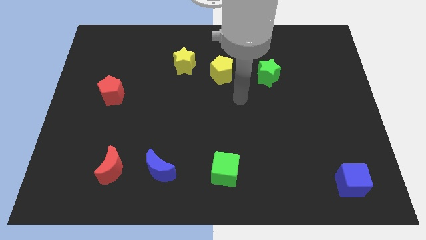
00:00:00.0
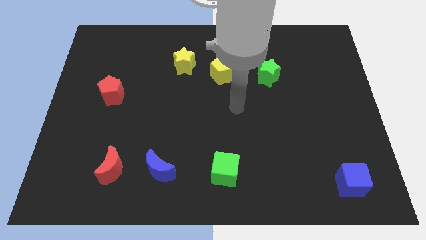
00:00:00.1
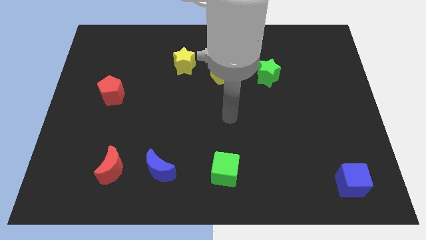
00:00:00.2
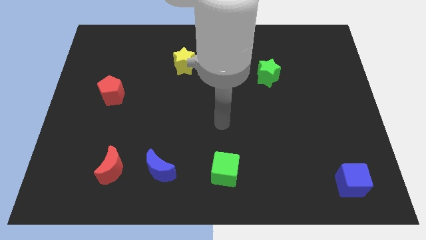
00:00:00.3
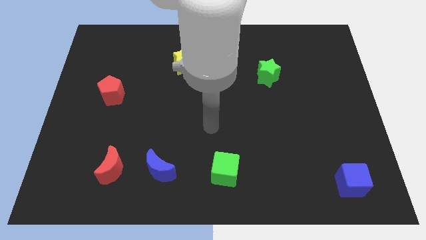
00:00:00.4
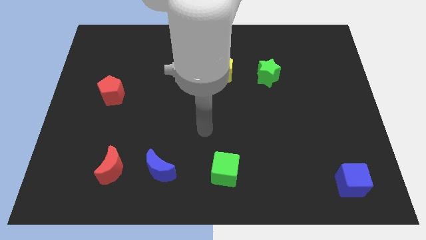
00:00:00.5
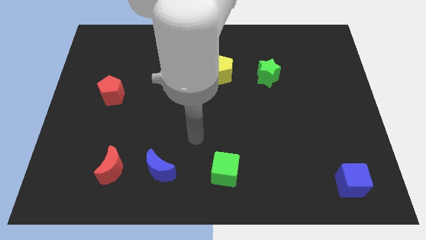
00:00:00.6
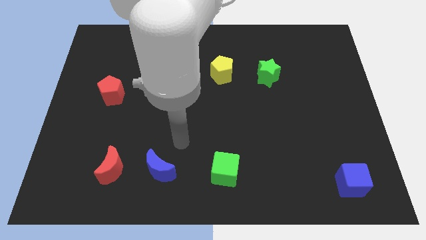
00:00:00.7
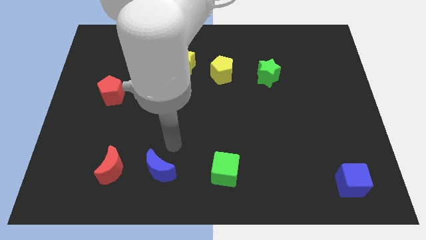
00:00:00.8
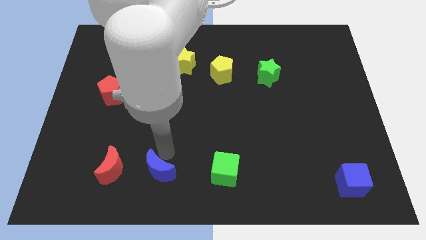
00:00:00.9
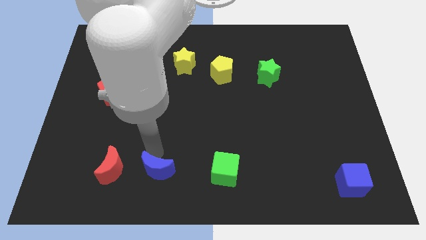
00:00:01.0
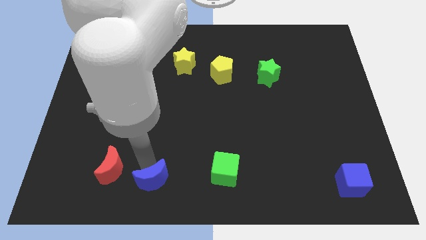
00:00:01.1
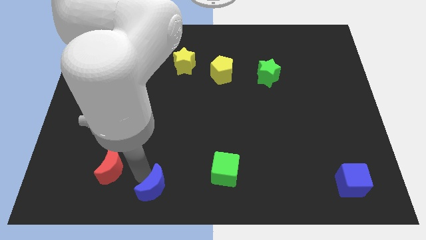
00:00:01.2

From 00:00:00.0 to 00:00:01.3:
separate the red moon from the blue moon

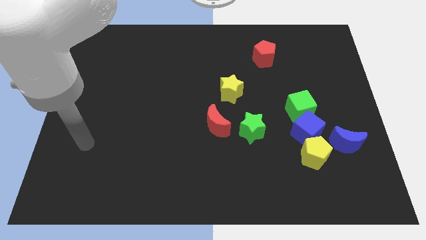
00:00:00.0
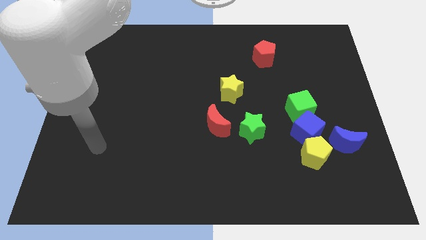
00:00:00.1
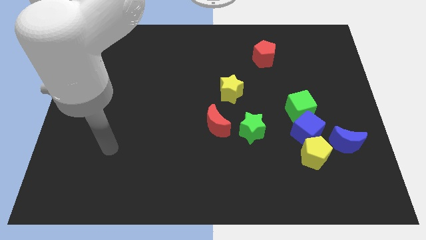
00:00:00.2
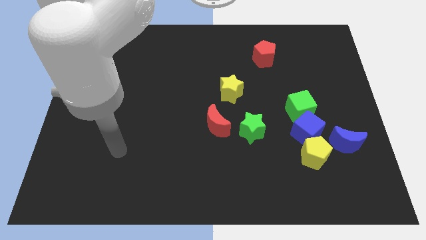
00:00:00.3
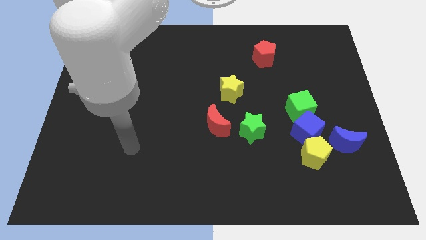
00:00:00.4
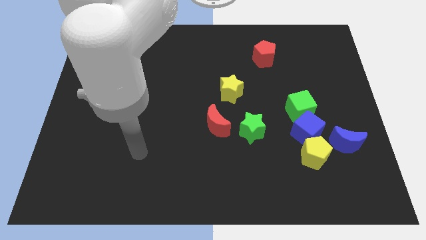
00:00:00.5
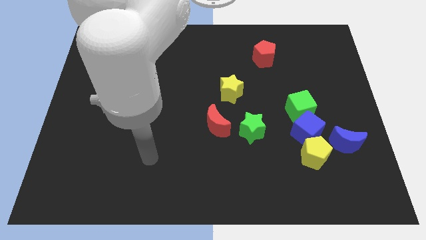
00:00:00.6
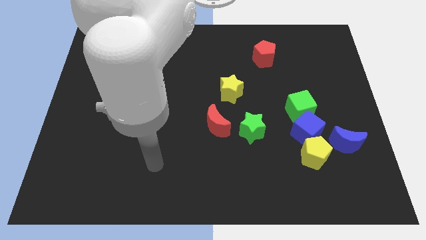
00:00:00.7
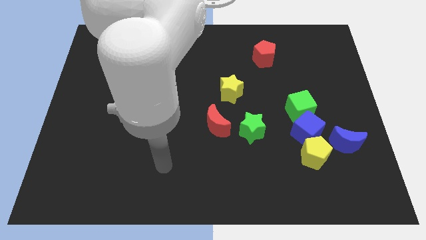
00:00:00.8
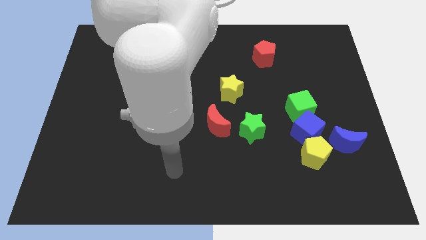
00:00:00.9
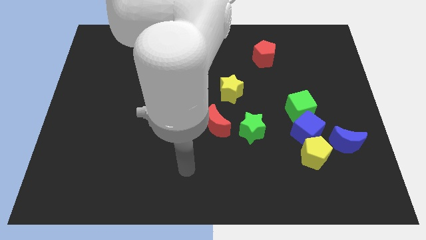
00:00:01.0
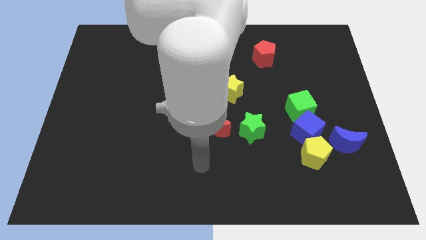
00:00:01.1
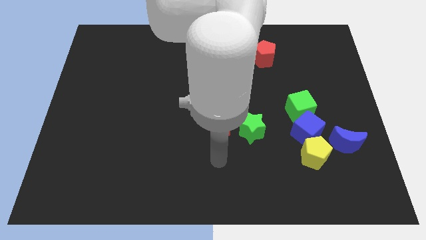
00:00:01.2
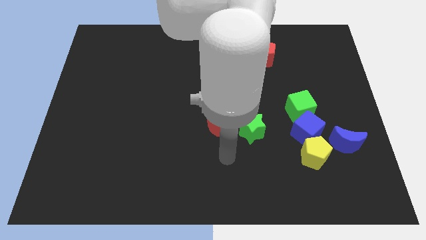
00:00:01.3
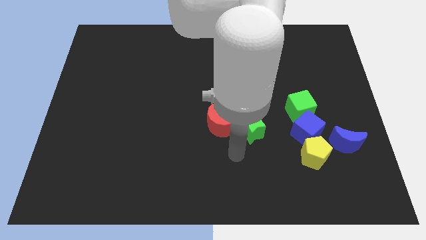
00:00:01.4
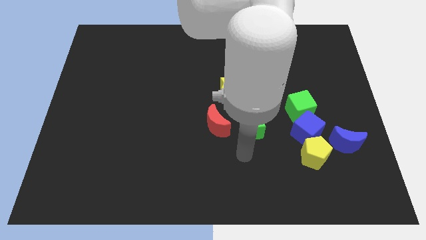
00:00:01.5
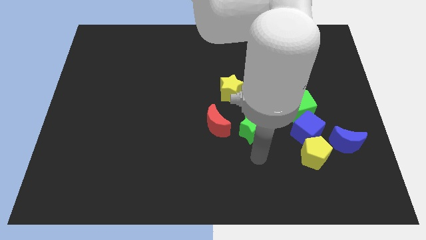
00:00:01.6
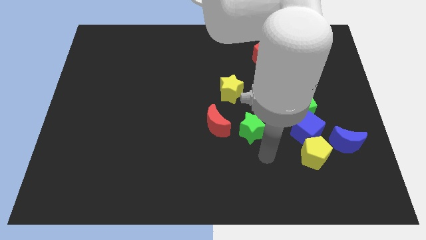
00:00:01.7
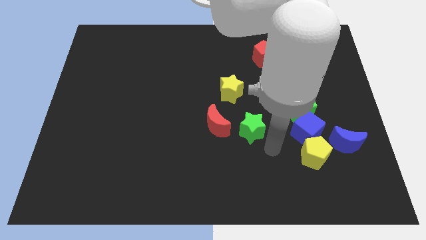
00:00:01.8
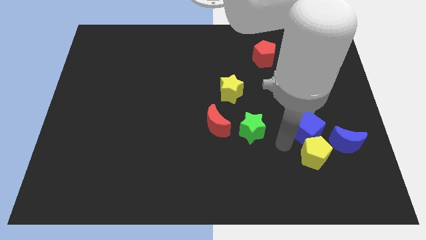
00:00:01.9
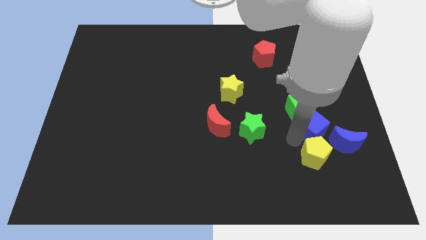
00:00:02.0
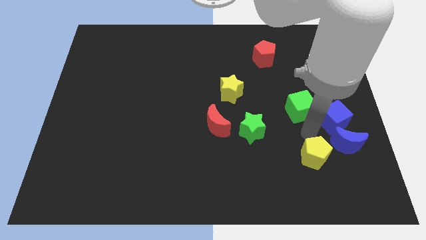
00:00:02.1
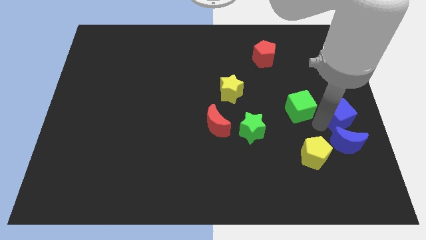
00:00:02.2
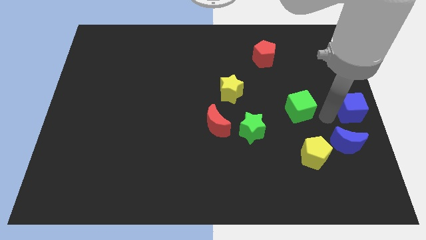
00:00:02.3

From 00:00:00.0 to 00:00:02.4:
pull the green cube apart from the blue cube

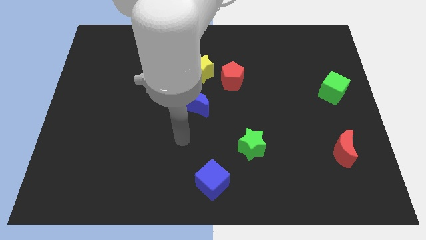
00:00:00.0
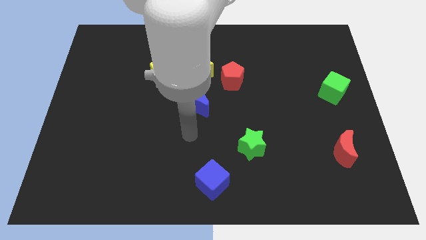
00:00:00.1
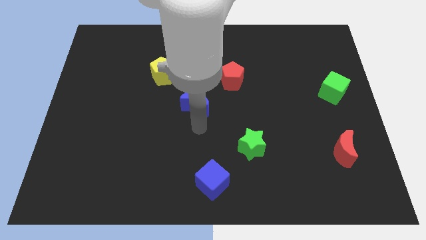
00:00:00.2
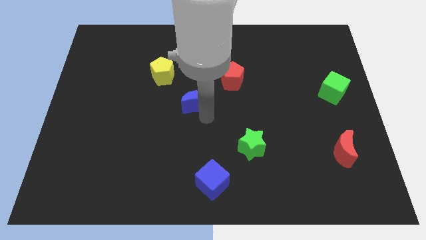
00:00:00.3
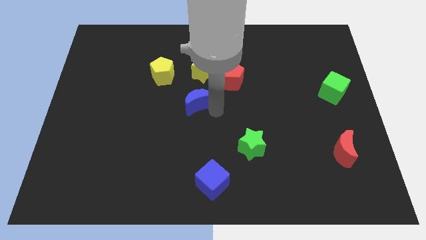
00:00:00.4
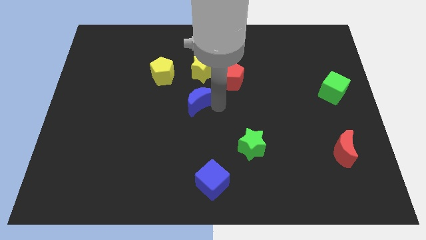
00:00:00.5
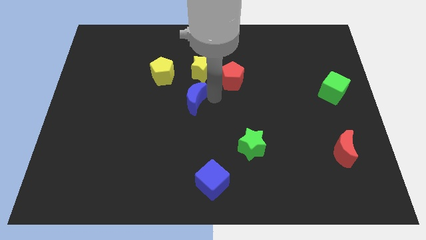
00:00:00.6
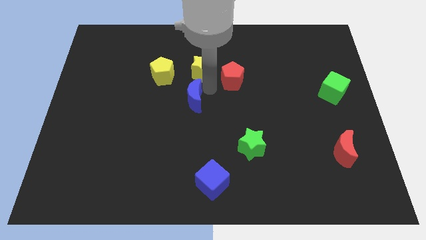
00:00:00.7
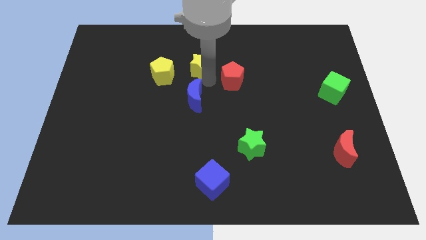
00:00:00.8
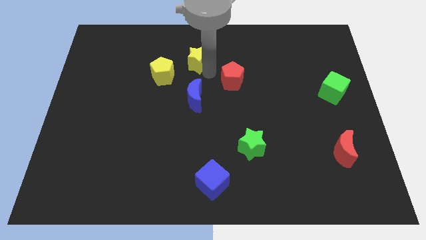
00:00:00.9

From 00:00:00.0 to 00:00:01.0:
move the red pentagon away from the yellow star

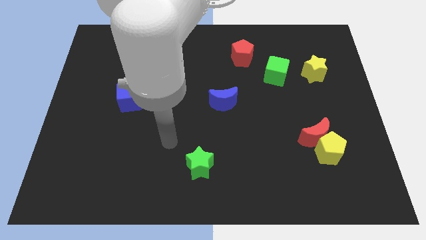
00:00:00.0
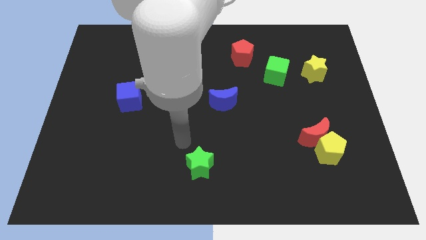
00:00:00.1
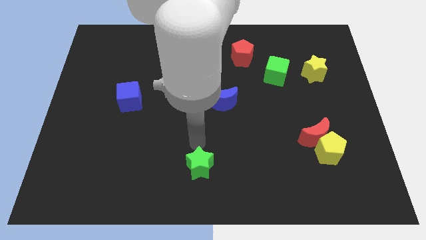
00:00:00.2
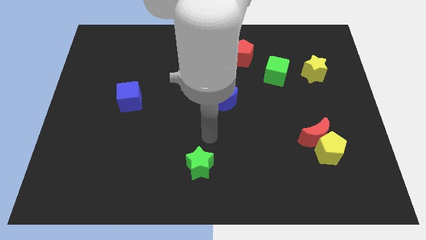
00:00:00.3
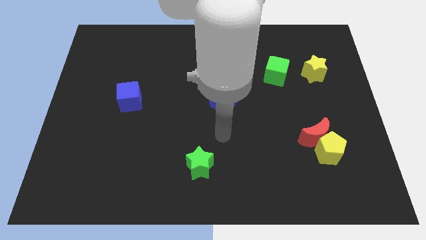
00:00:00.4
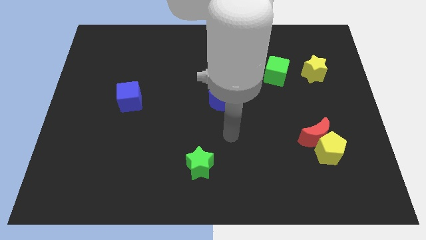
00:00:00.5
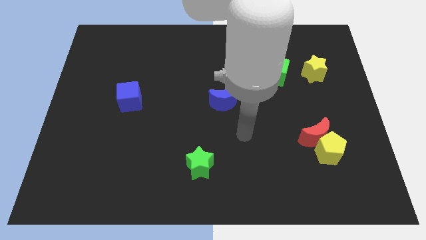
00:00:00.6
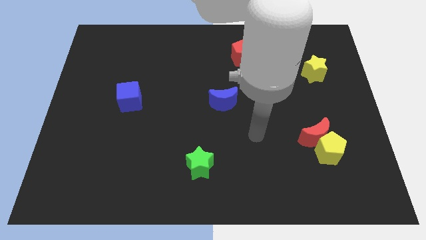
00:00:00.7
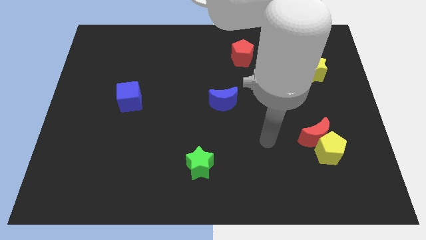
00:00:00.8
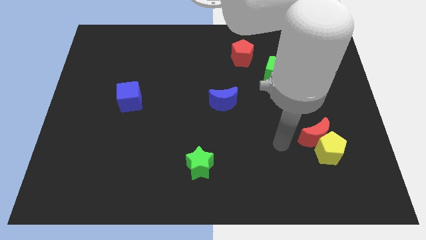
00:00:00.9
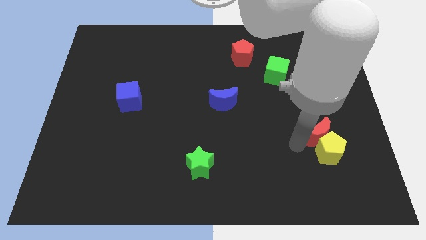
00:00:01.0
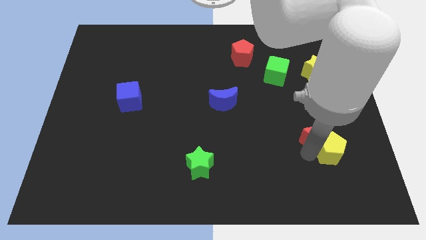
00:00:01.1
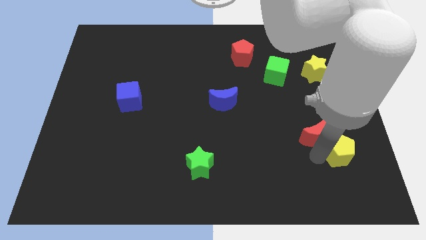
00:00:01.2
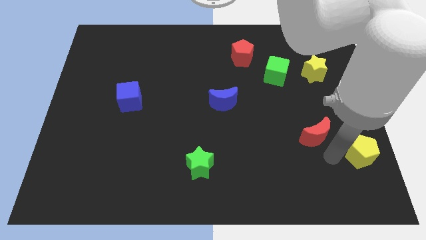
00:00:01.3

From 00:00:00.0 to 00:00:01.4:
separate the red moon from the yellow pentagon

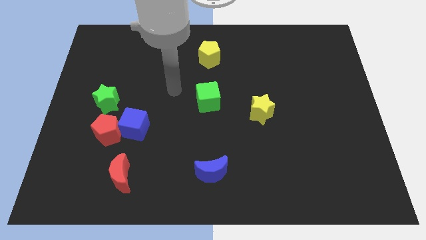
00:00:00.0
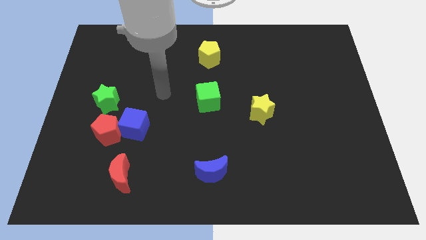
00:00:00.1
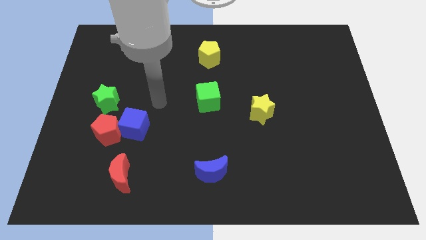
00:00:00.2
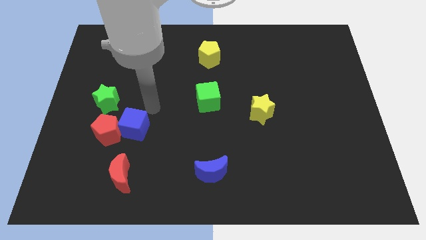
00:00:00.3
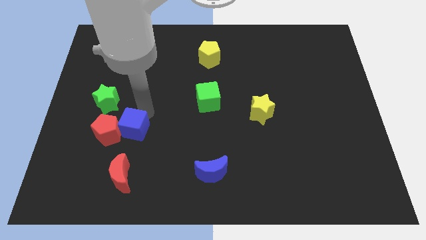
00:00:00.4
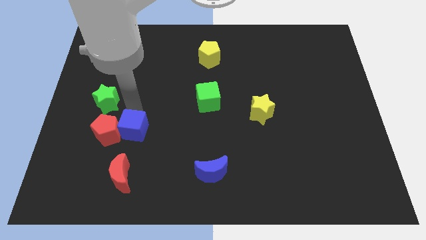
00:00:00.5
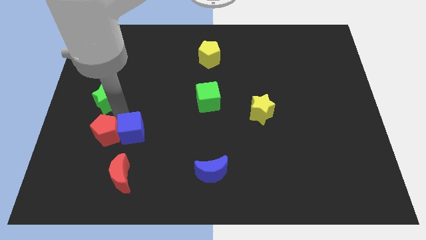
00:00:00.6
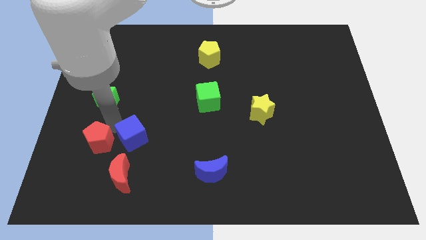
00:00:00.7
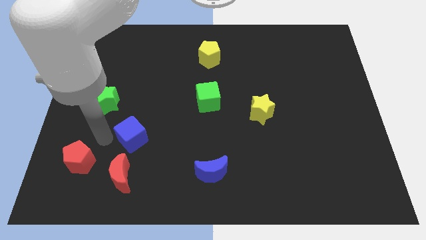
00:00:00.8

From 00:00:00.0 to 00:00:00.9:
move the blue cube away from the red pentagon

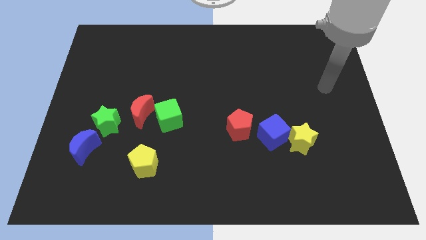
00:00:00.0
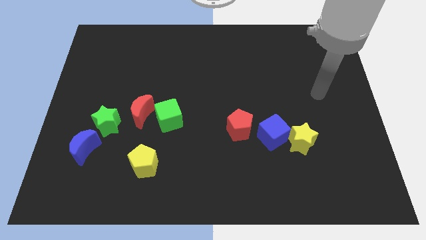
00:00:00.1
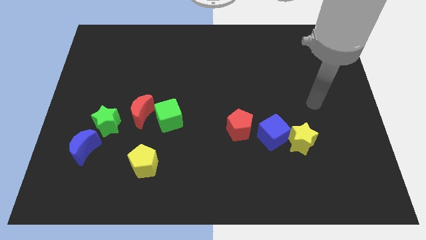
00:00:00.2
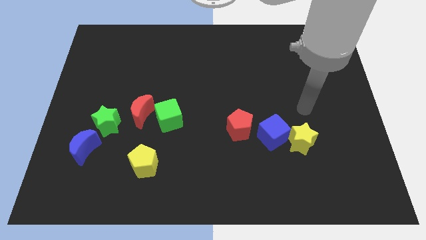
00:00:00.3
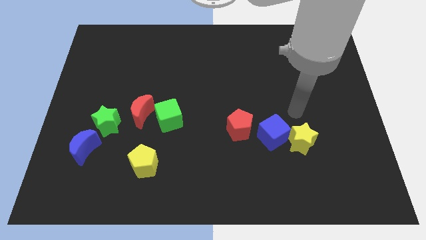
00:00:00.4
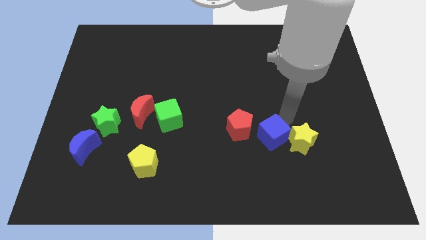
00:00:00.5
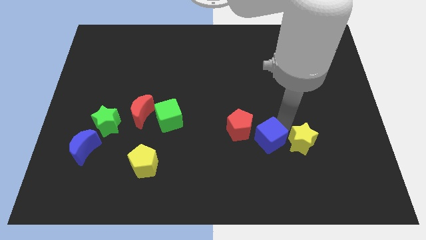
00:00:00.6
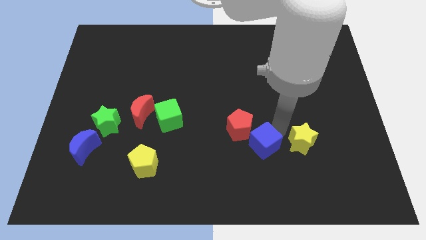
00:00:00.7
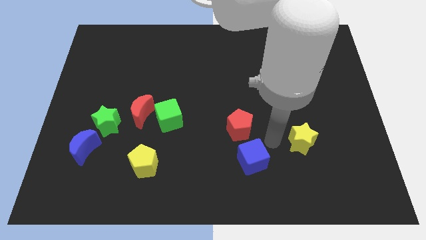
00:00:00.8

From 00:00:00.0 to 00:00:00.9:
move the yellow star away from the blue cube

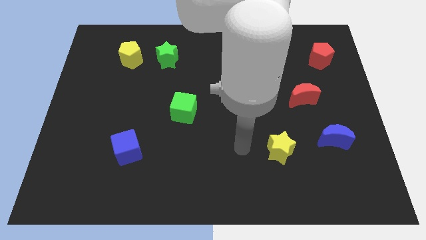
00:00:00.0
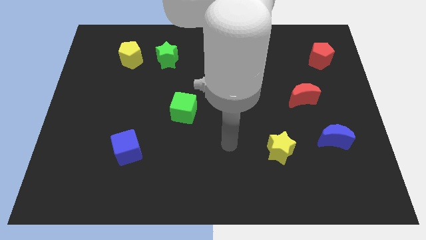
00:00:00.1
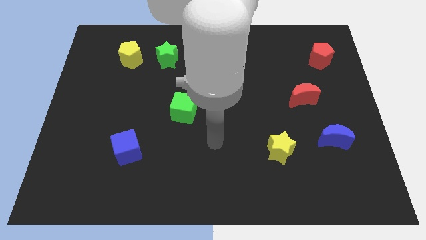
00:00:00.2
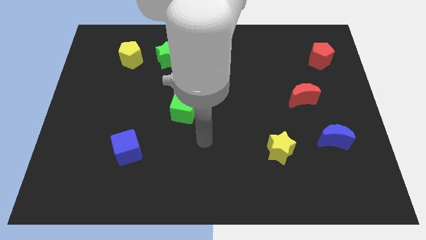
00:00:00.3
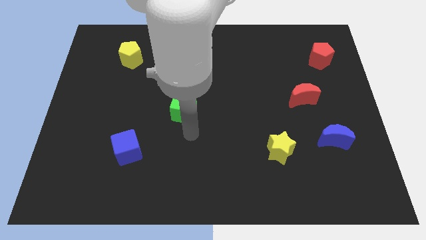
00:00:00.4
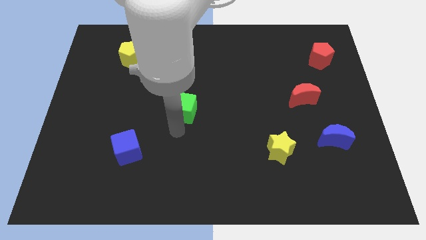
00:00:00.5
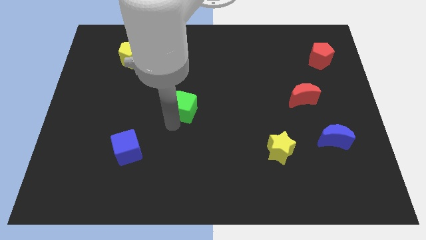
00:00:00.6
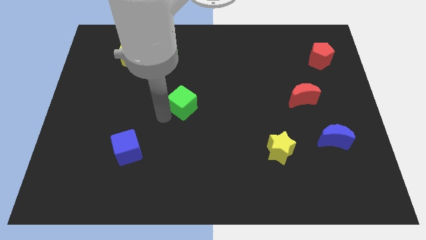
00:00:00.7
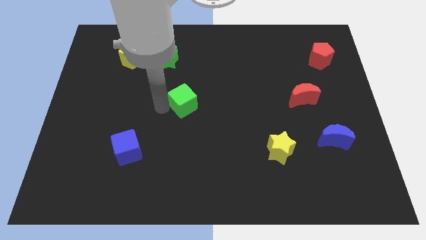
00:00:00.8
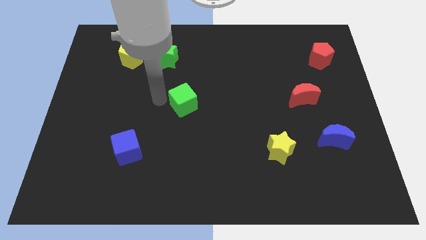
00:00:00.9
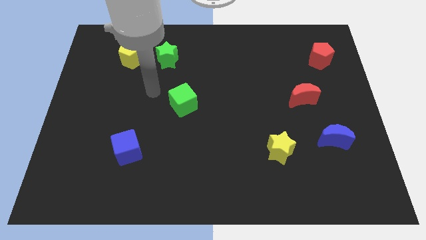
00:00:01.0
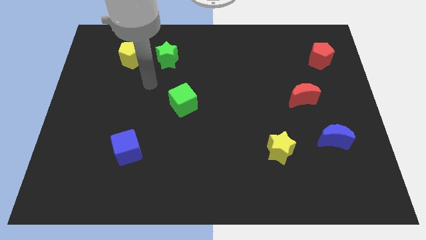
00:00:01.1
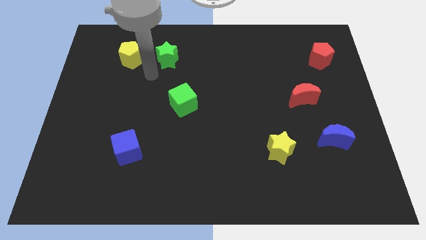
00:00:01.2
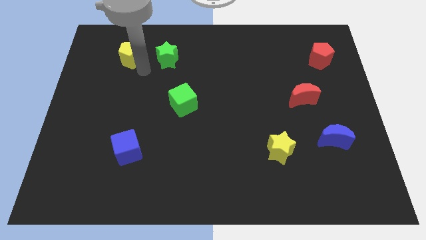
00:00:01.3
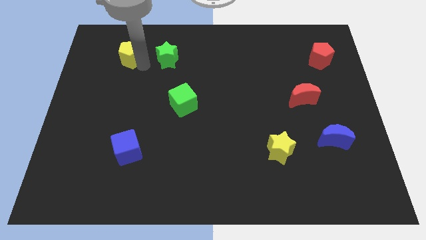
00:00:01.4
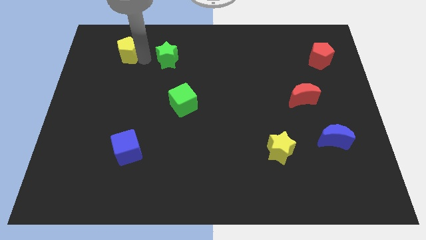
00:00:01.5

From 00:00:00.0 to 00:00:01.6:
move the green star away from the yellow pentagon
